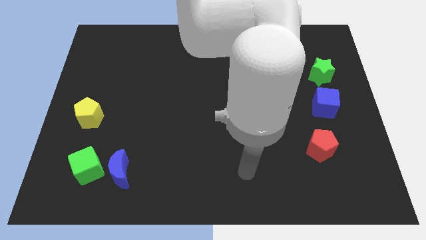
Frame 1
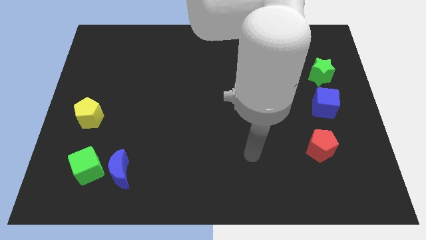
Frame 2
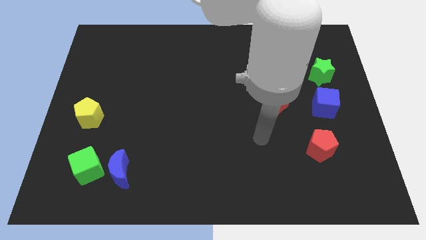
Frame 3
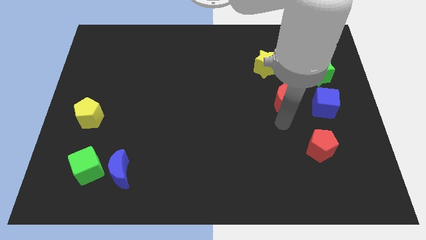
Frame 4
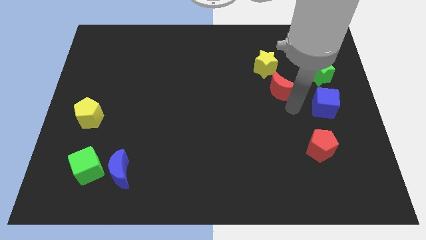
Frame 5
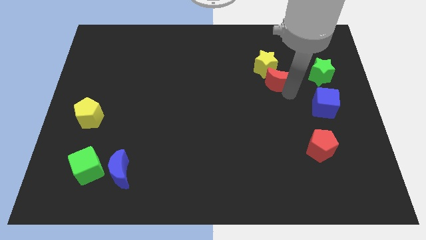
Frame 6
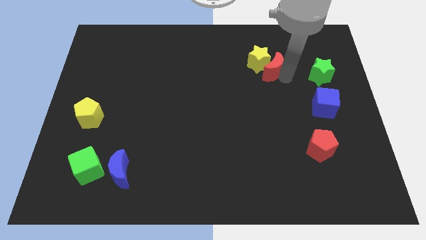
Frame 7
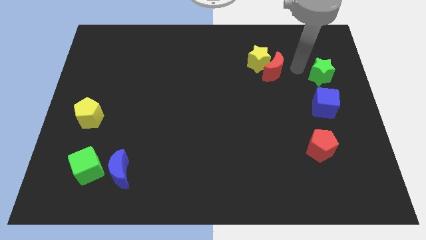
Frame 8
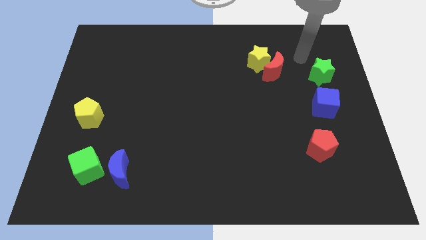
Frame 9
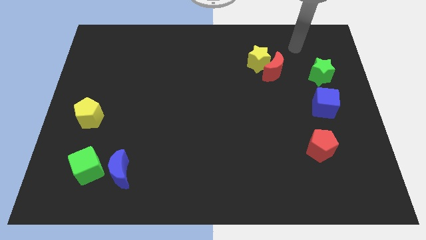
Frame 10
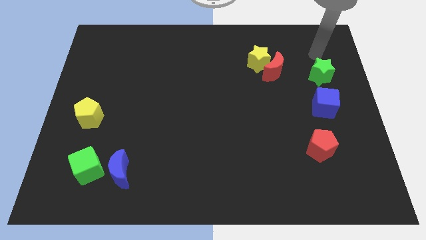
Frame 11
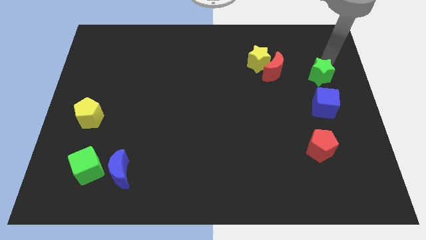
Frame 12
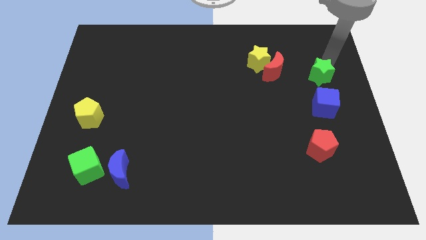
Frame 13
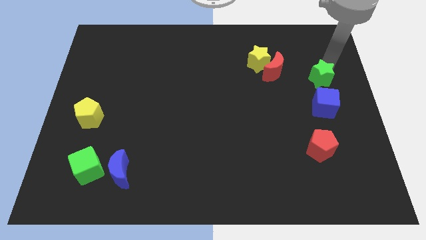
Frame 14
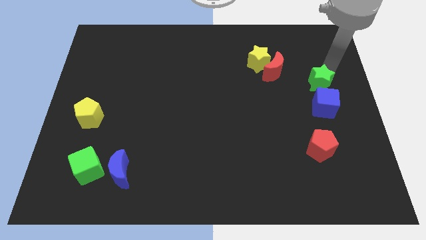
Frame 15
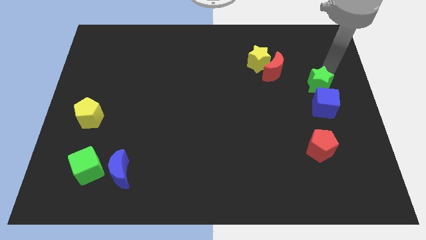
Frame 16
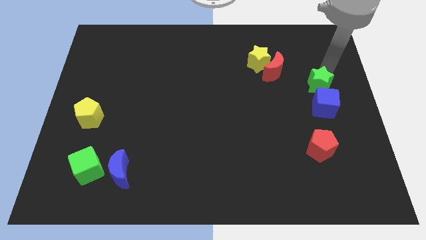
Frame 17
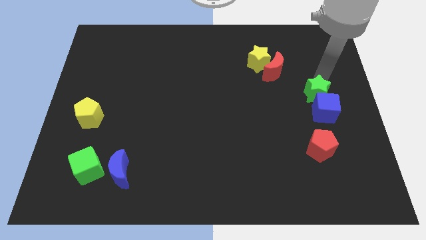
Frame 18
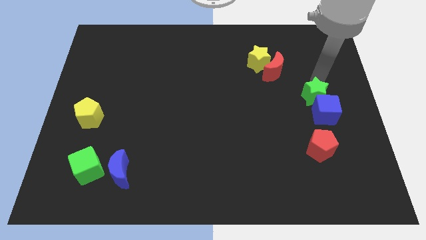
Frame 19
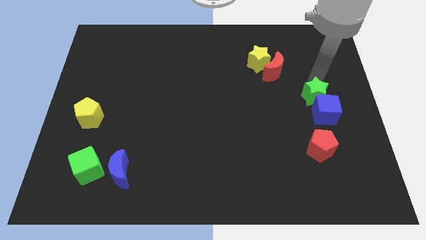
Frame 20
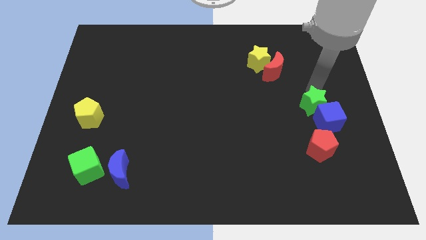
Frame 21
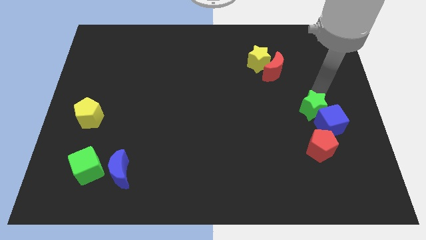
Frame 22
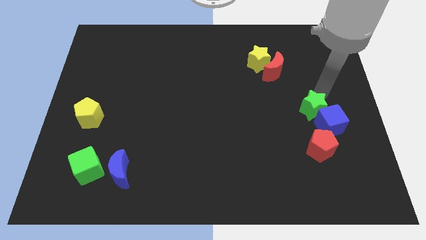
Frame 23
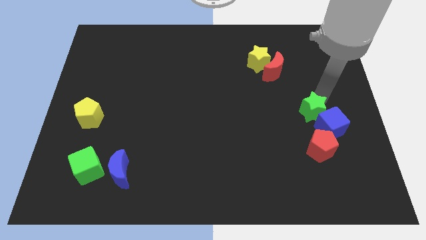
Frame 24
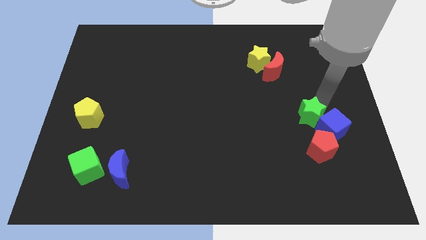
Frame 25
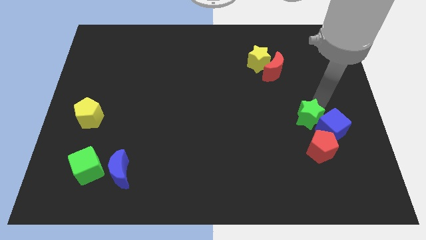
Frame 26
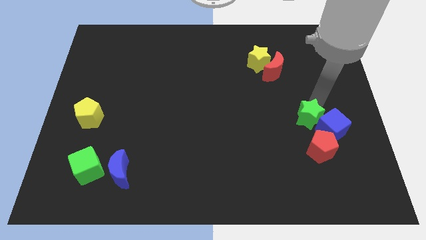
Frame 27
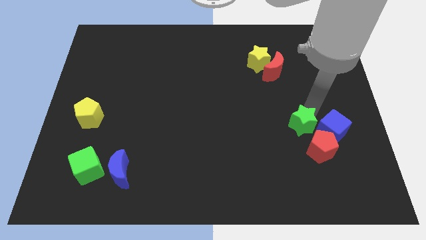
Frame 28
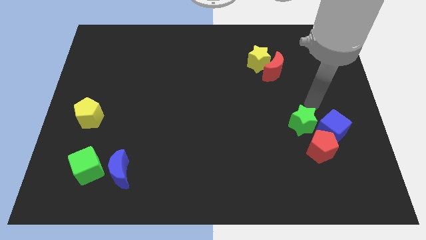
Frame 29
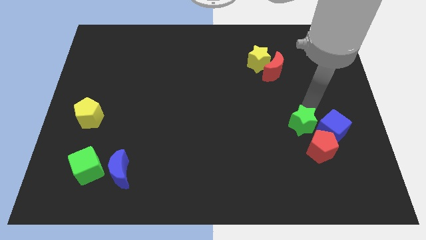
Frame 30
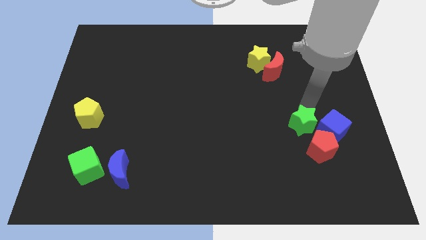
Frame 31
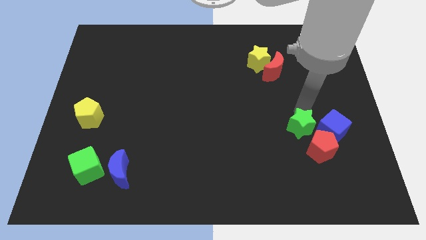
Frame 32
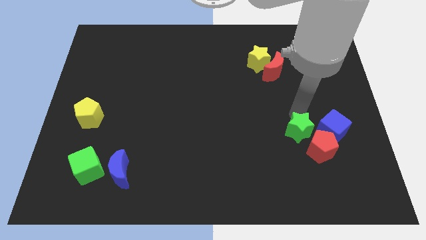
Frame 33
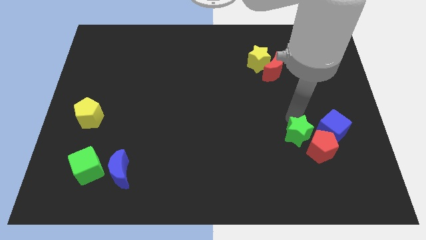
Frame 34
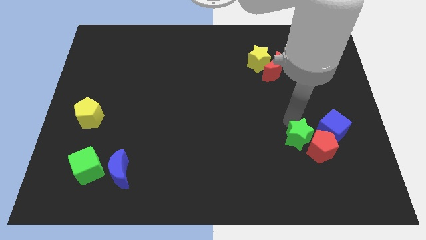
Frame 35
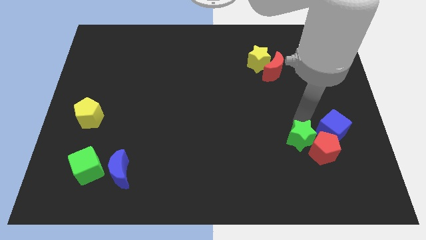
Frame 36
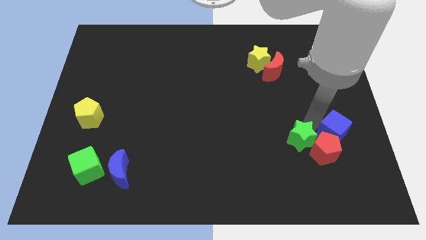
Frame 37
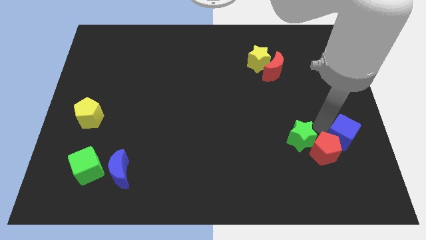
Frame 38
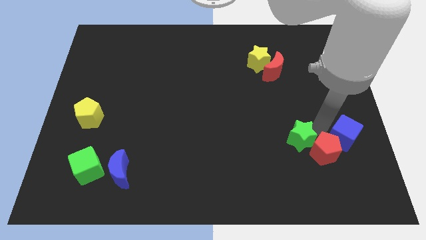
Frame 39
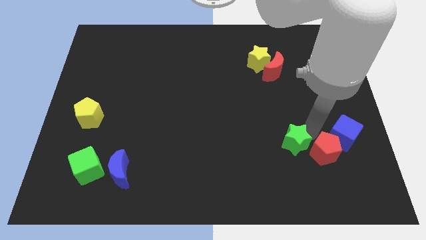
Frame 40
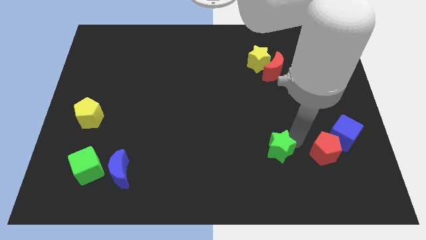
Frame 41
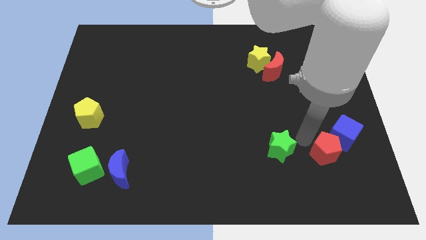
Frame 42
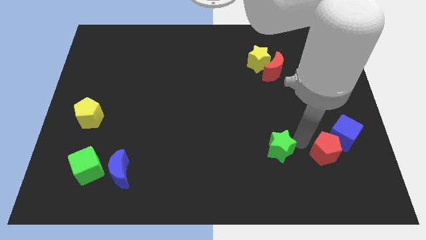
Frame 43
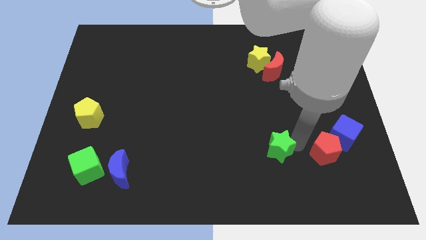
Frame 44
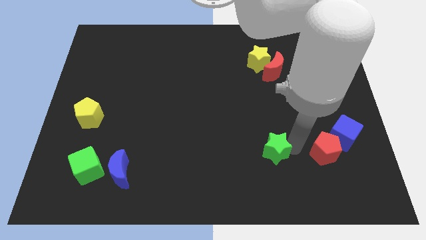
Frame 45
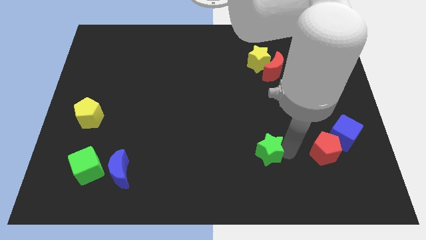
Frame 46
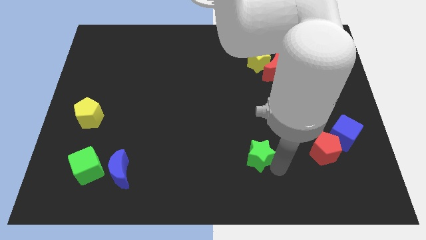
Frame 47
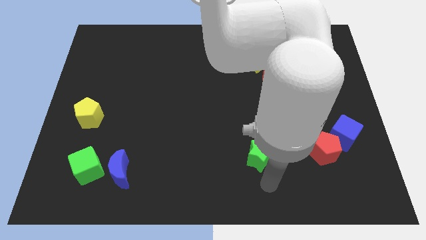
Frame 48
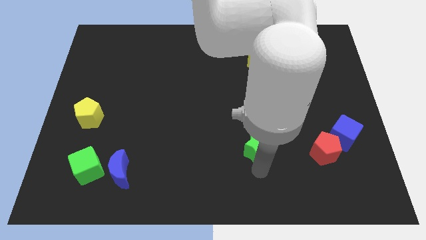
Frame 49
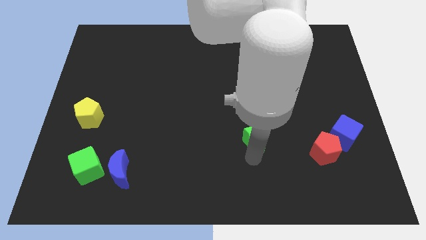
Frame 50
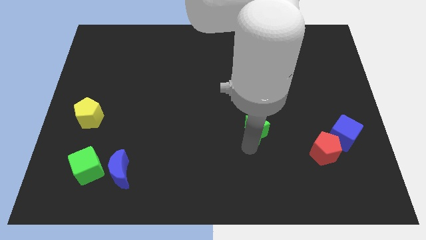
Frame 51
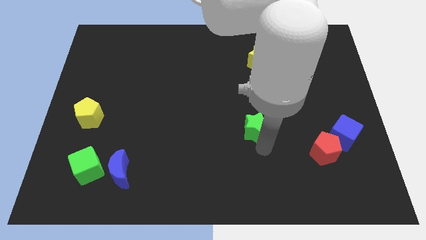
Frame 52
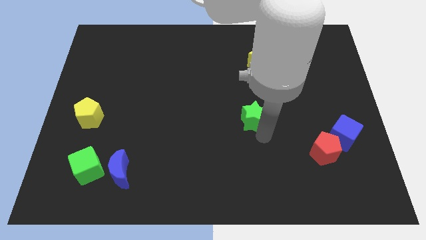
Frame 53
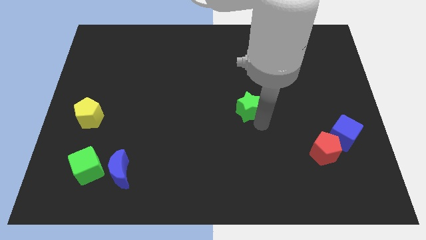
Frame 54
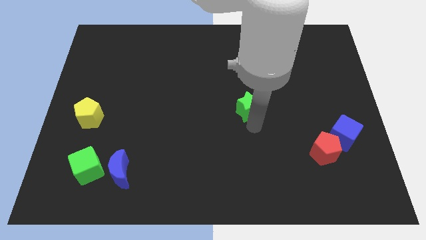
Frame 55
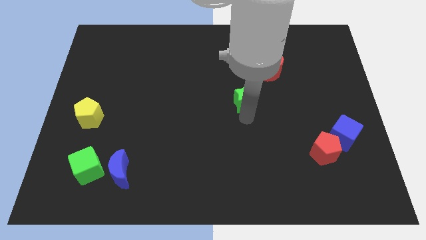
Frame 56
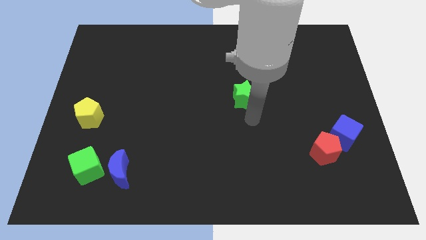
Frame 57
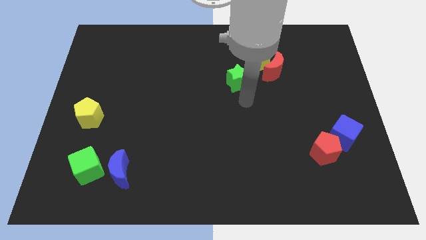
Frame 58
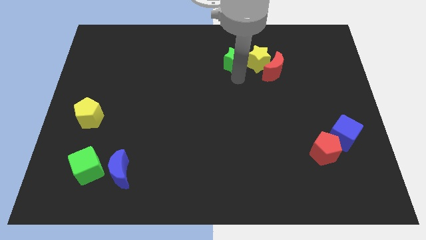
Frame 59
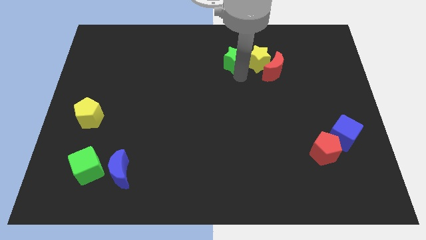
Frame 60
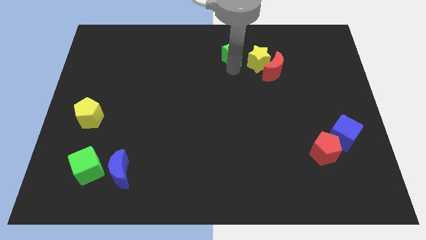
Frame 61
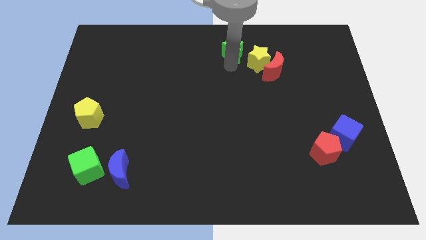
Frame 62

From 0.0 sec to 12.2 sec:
put the green star to the top

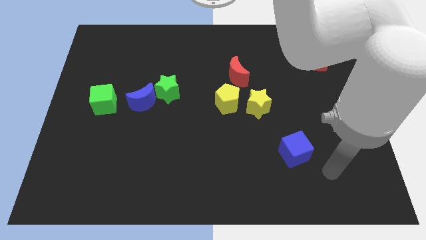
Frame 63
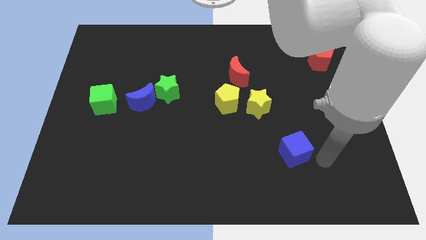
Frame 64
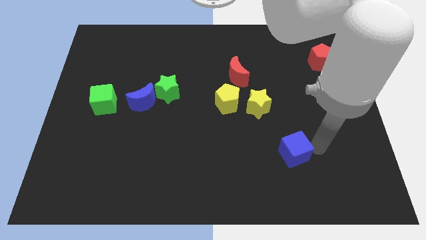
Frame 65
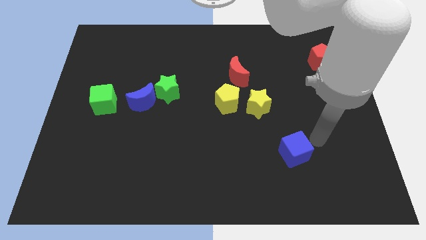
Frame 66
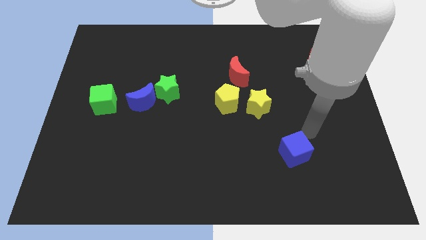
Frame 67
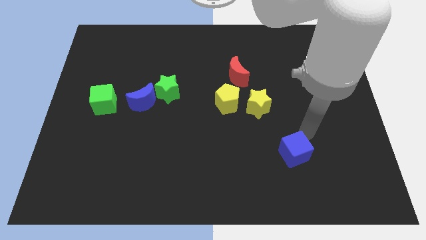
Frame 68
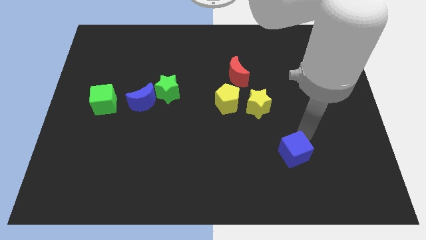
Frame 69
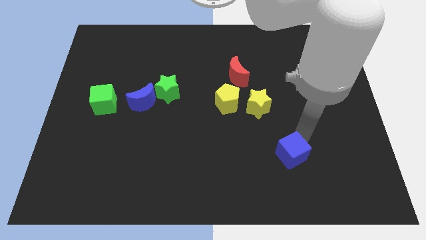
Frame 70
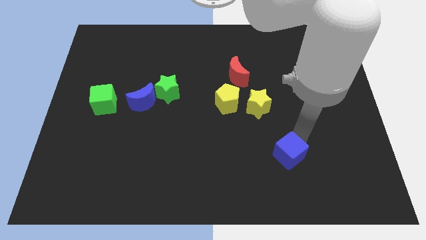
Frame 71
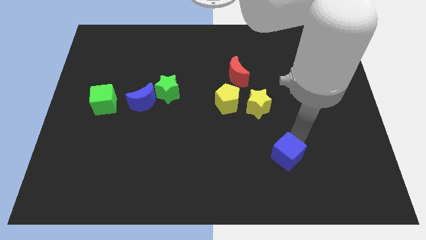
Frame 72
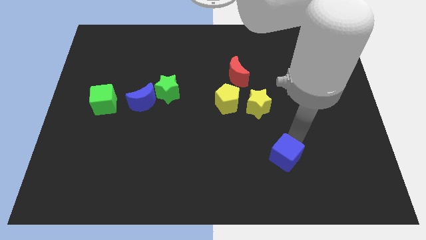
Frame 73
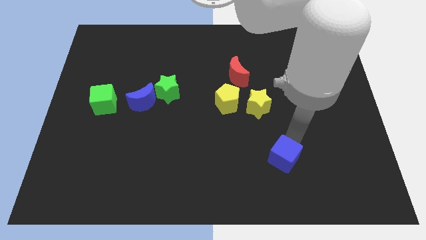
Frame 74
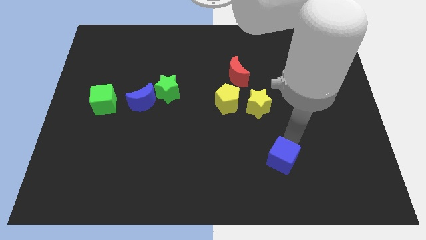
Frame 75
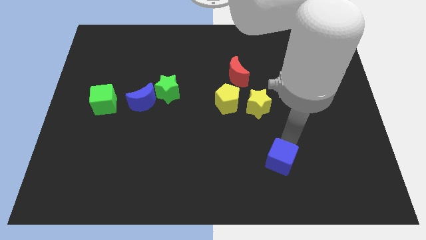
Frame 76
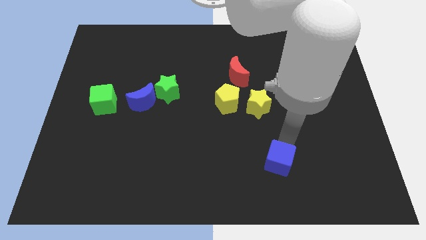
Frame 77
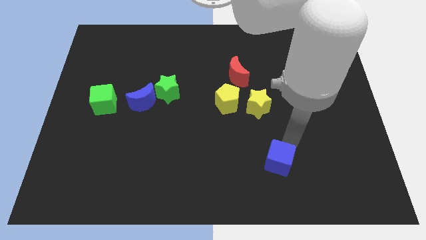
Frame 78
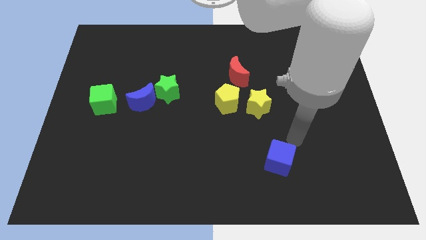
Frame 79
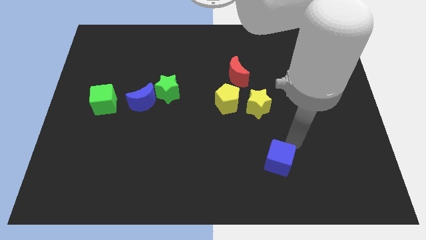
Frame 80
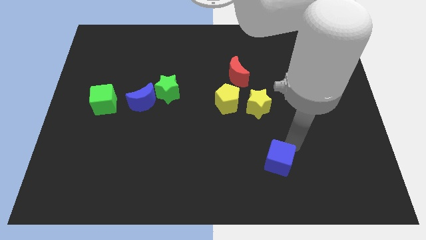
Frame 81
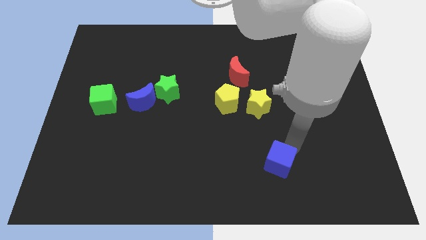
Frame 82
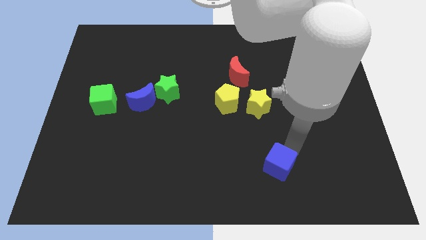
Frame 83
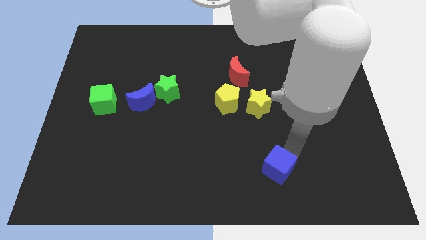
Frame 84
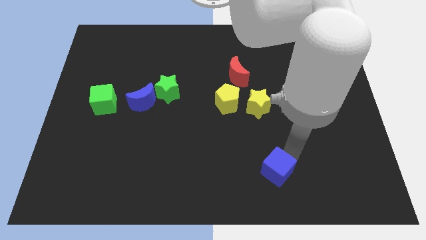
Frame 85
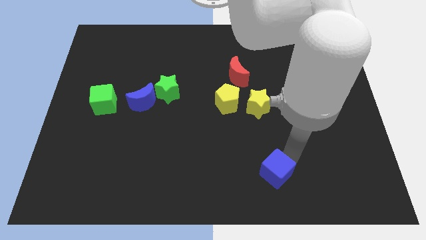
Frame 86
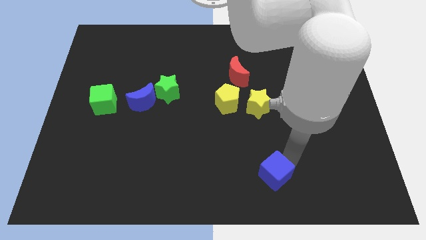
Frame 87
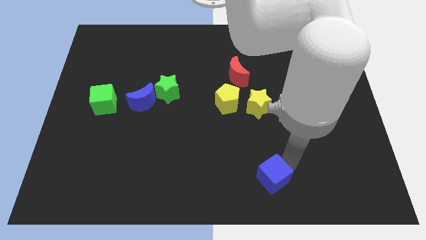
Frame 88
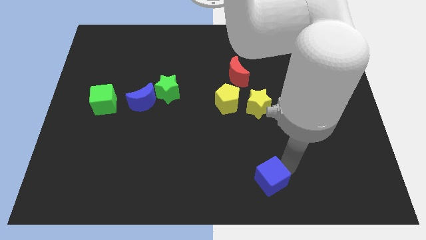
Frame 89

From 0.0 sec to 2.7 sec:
move the blue cube to the bottom side
